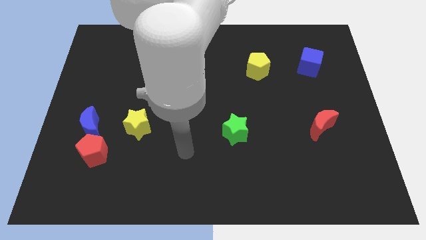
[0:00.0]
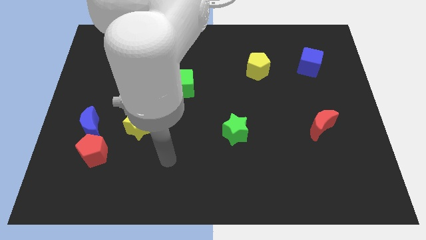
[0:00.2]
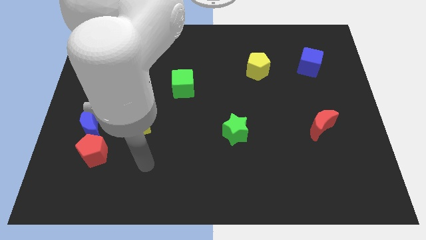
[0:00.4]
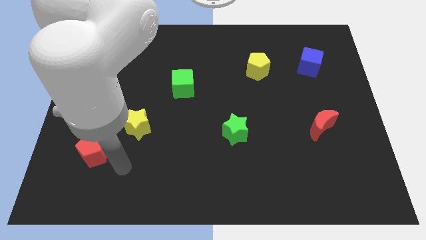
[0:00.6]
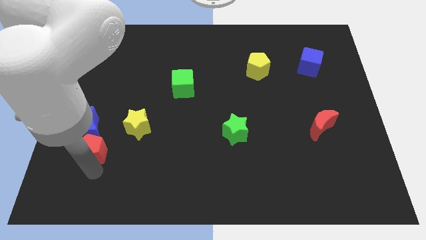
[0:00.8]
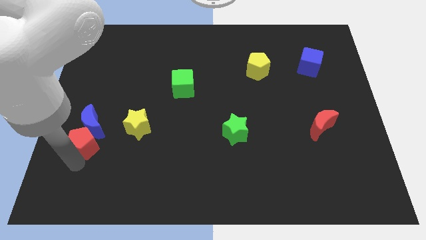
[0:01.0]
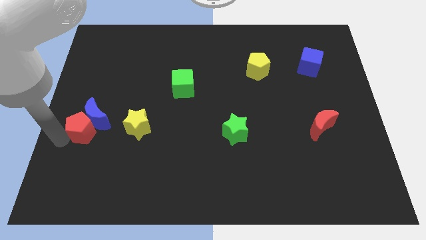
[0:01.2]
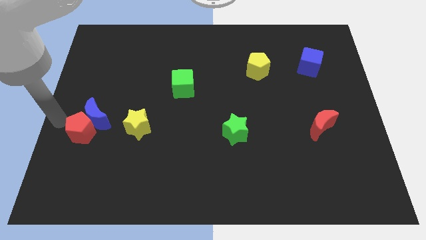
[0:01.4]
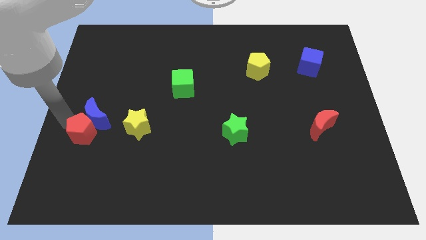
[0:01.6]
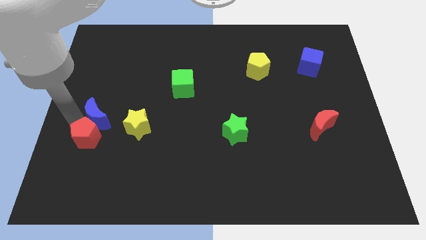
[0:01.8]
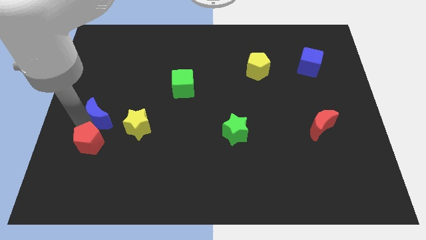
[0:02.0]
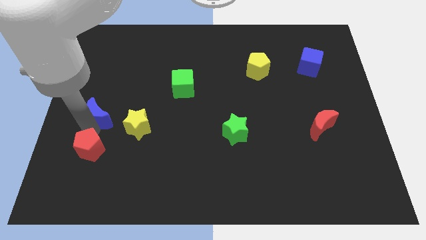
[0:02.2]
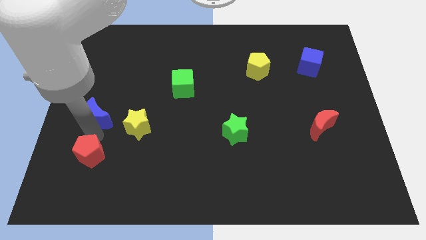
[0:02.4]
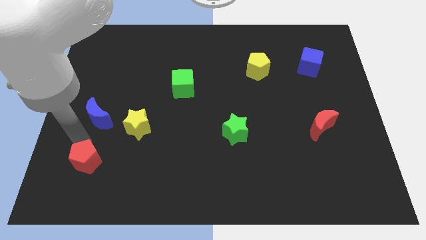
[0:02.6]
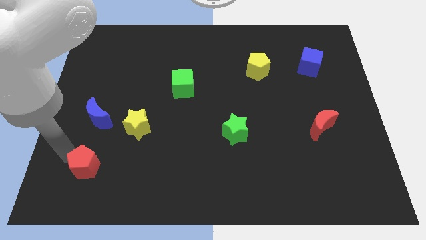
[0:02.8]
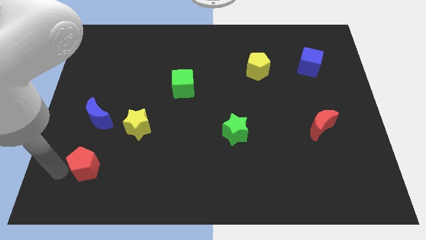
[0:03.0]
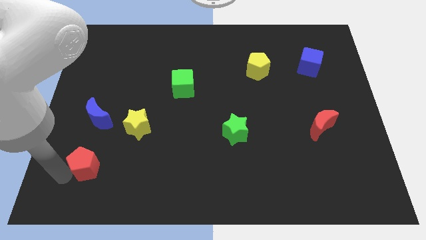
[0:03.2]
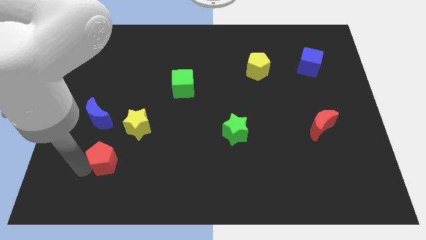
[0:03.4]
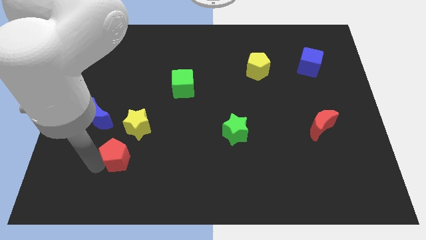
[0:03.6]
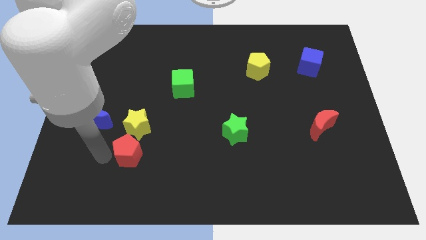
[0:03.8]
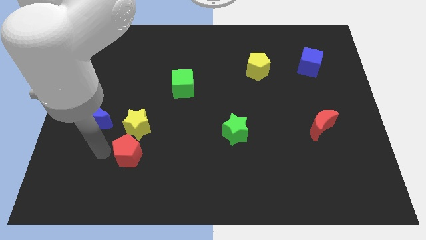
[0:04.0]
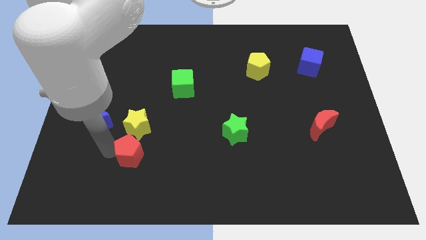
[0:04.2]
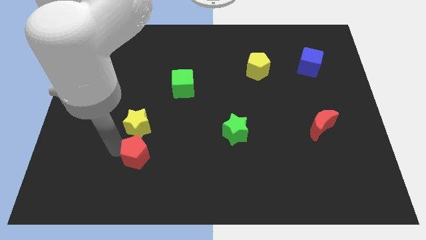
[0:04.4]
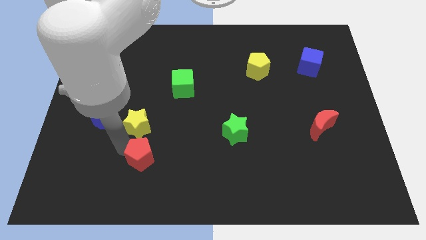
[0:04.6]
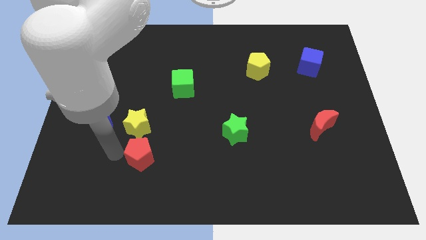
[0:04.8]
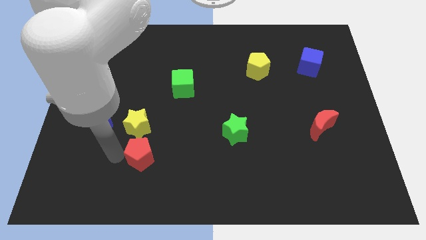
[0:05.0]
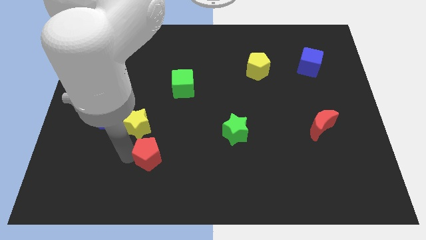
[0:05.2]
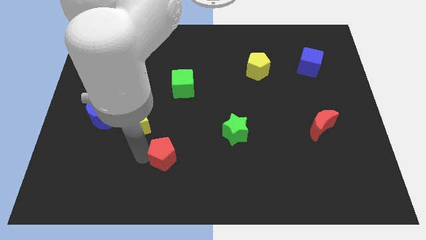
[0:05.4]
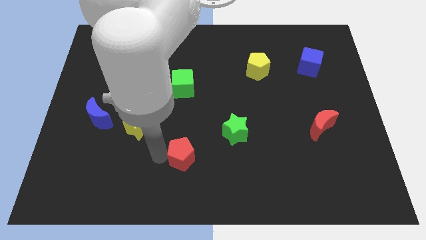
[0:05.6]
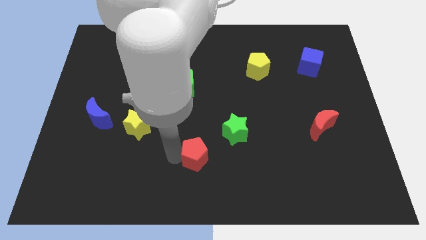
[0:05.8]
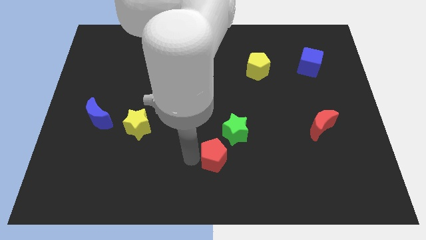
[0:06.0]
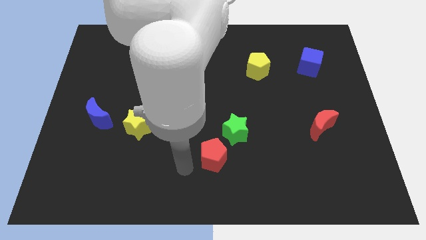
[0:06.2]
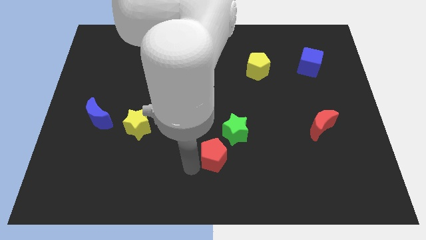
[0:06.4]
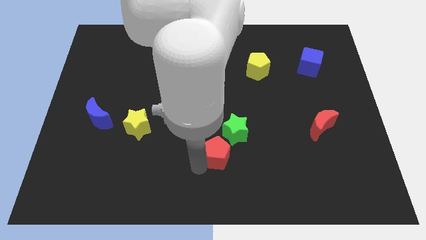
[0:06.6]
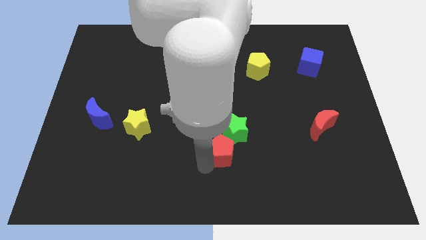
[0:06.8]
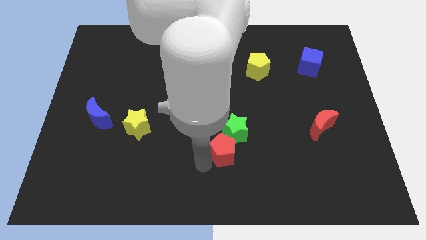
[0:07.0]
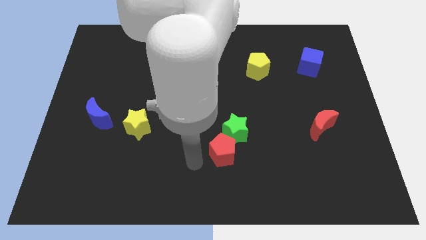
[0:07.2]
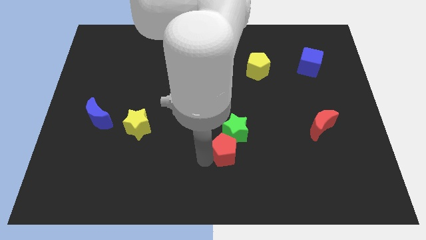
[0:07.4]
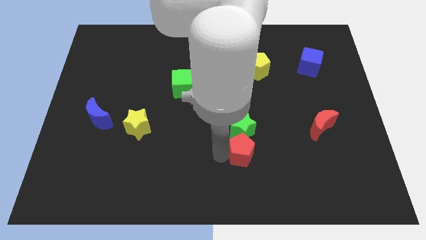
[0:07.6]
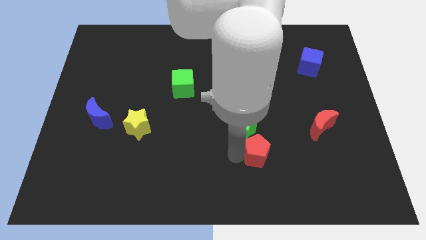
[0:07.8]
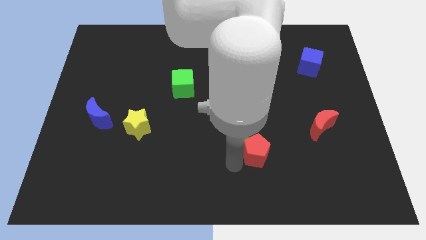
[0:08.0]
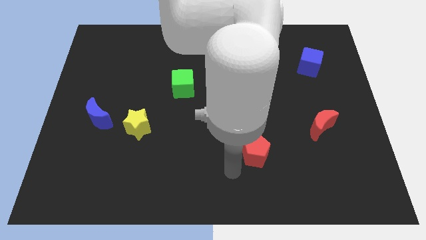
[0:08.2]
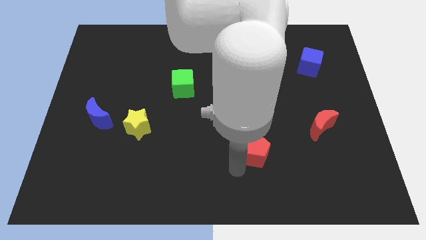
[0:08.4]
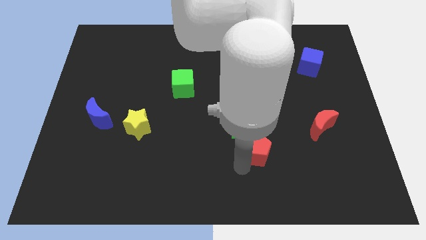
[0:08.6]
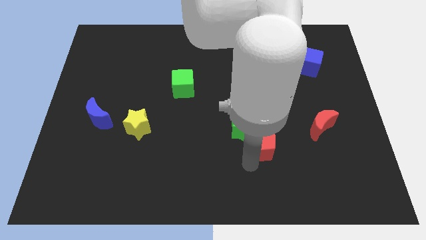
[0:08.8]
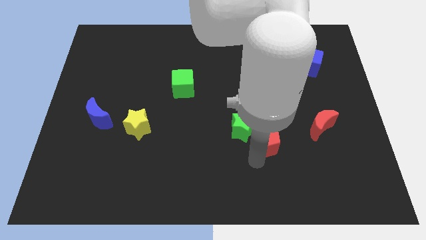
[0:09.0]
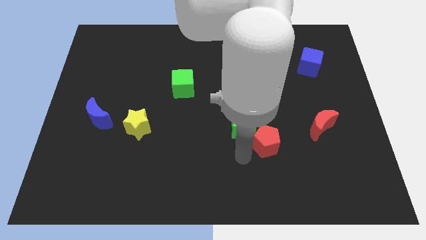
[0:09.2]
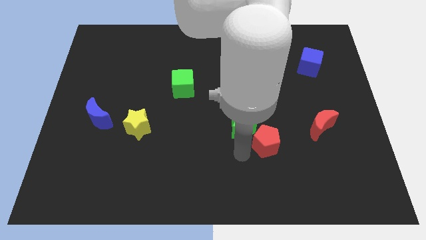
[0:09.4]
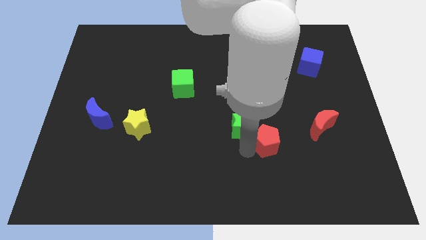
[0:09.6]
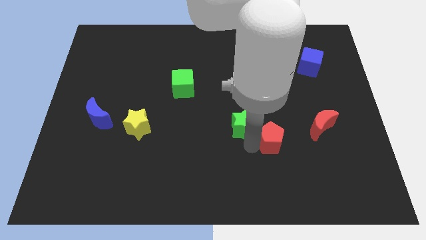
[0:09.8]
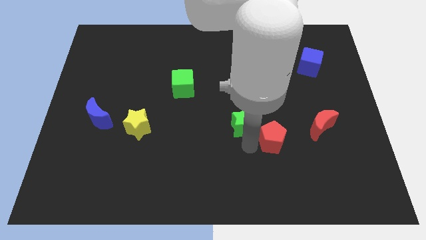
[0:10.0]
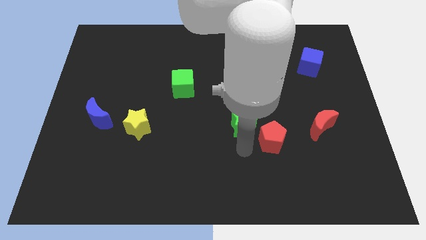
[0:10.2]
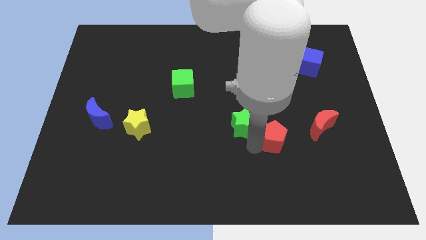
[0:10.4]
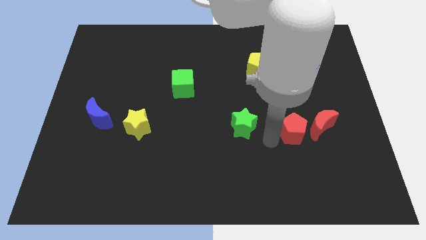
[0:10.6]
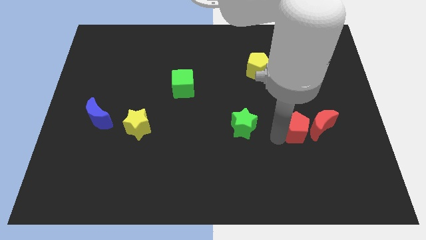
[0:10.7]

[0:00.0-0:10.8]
put the red pentagon to the red moon

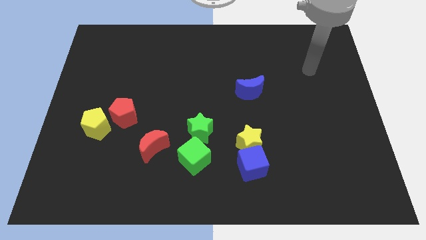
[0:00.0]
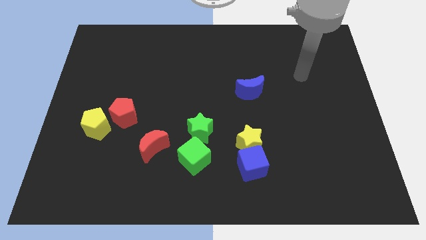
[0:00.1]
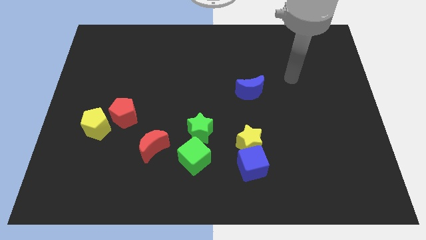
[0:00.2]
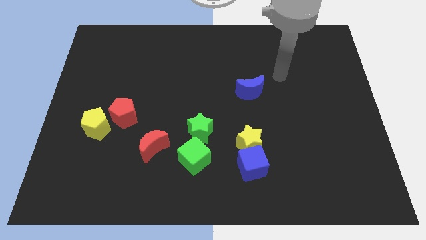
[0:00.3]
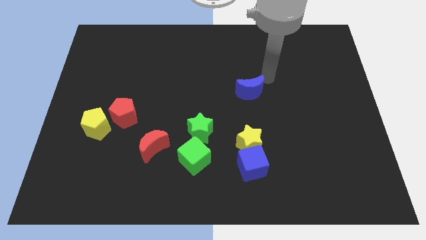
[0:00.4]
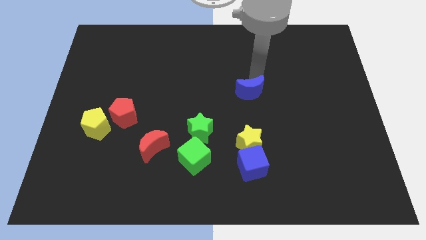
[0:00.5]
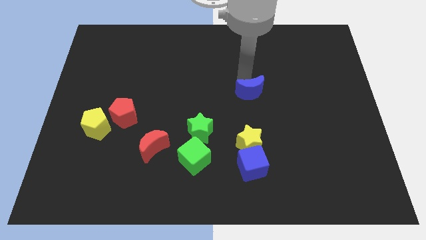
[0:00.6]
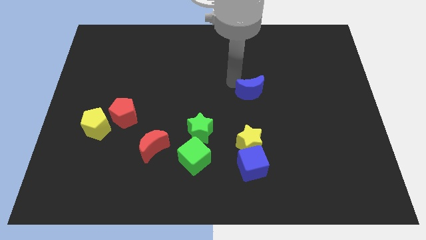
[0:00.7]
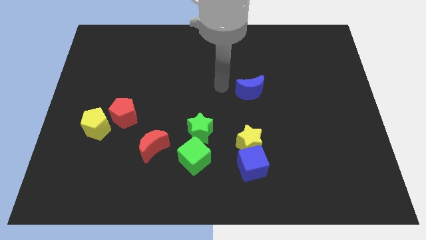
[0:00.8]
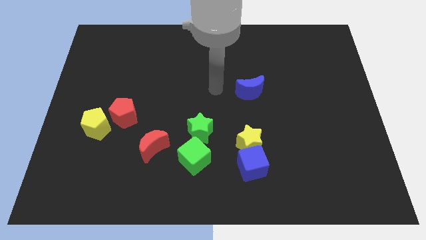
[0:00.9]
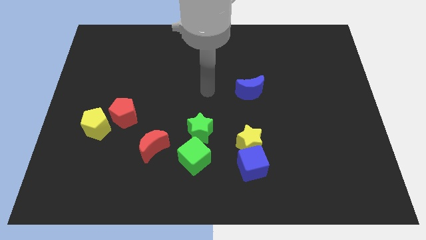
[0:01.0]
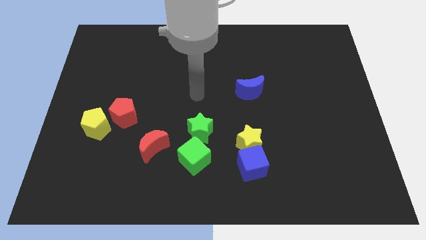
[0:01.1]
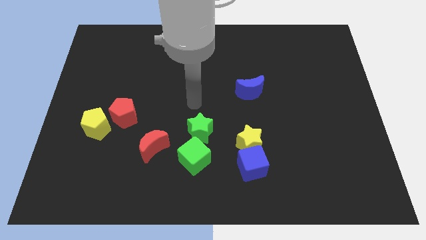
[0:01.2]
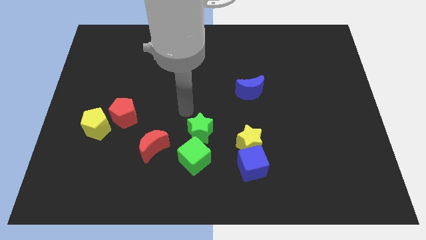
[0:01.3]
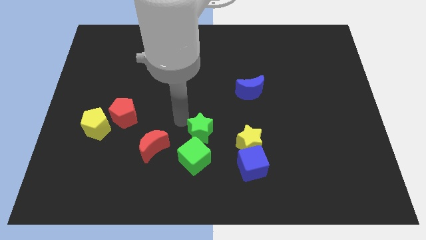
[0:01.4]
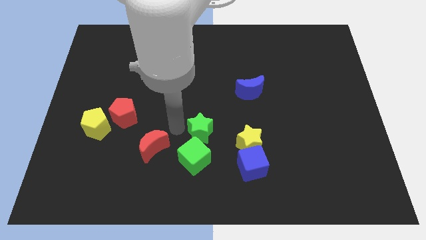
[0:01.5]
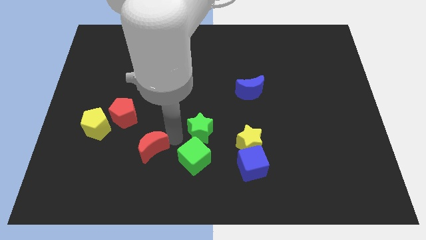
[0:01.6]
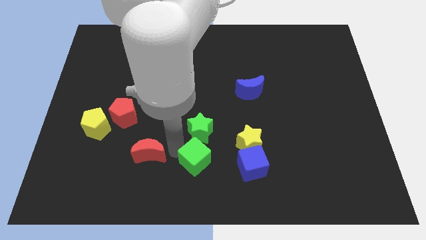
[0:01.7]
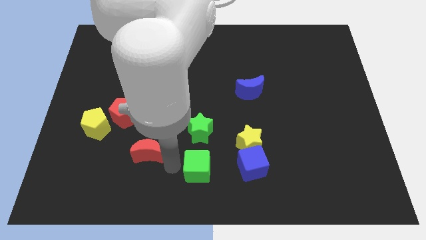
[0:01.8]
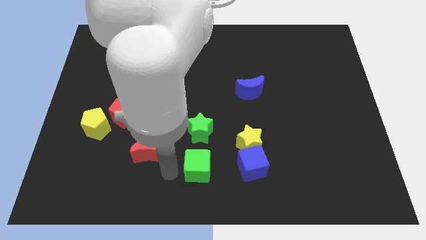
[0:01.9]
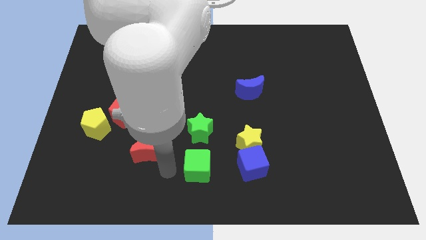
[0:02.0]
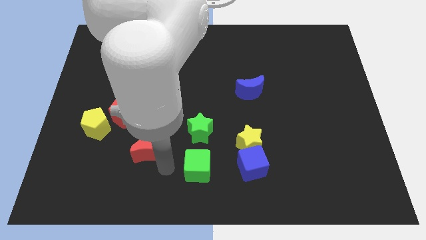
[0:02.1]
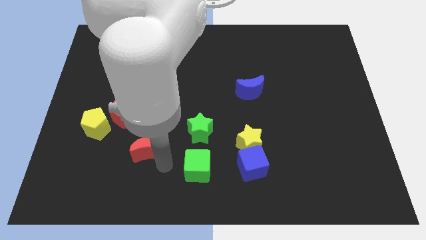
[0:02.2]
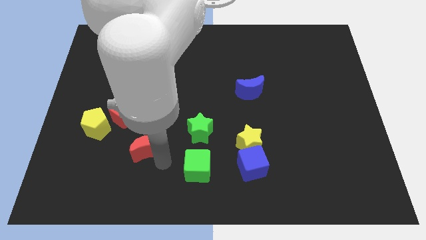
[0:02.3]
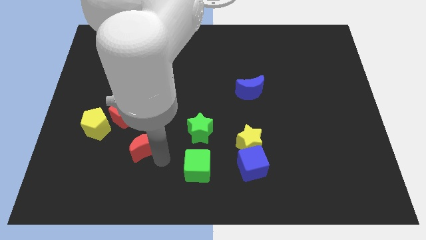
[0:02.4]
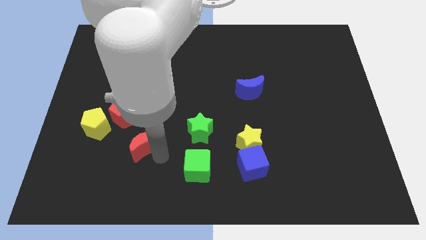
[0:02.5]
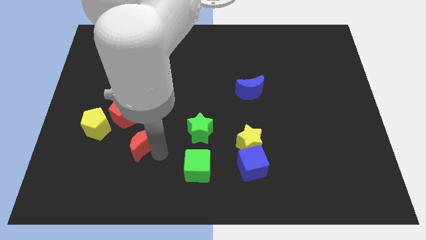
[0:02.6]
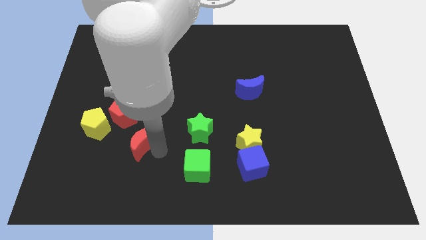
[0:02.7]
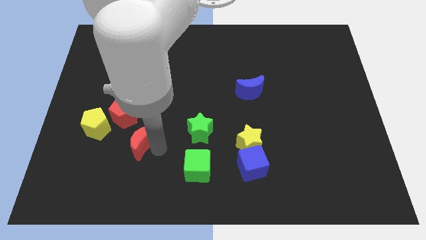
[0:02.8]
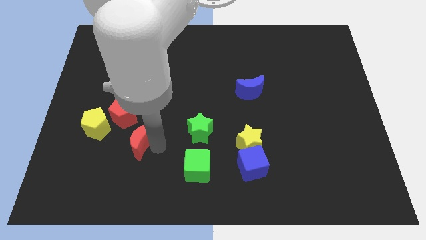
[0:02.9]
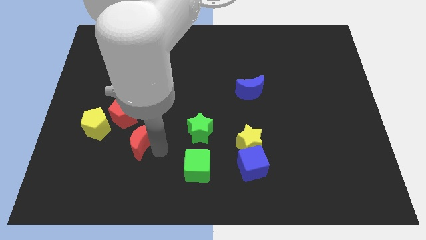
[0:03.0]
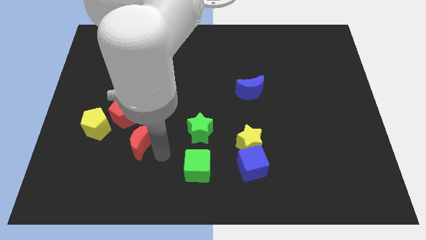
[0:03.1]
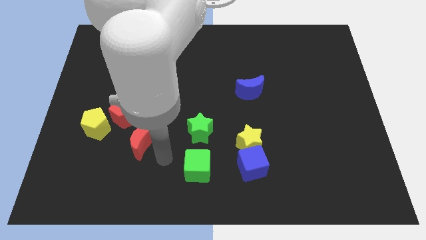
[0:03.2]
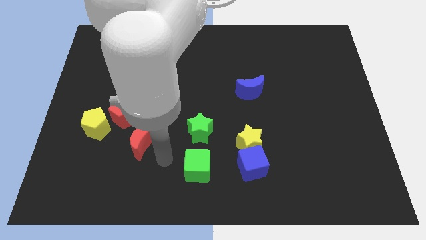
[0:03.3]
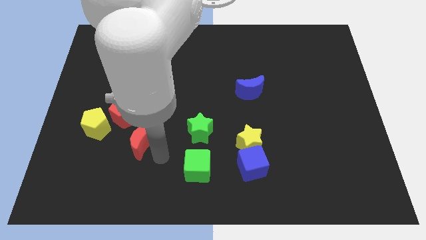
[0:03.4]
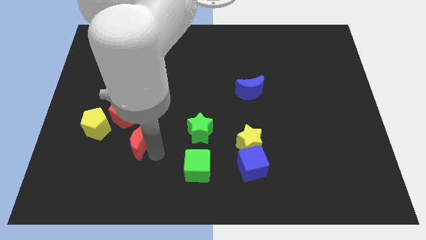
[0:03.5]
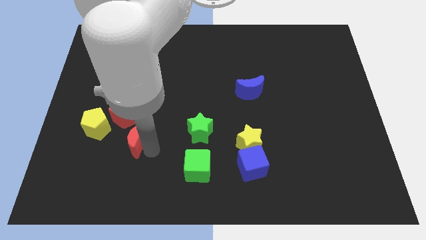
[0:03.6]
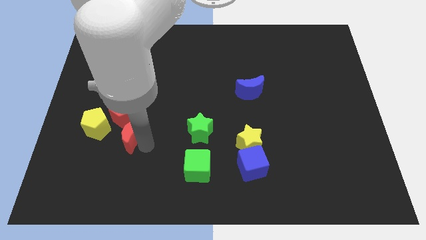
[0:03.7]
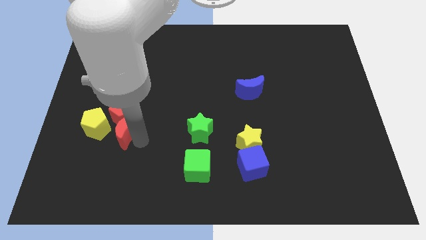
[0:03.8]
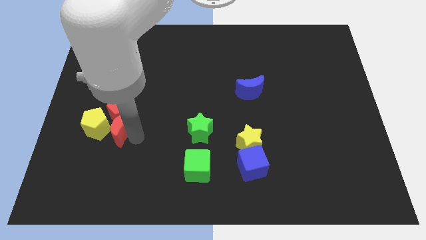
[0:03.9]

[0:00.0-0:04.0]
put the red moon towards the yellow pentagon
